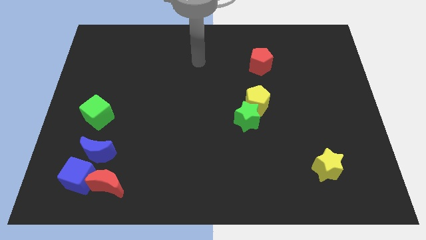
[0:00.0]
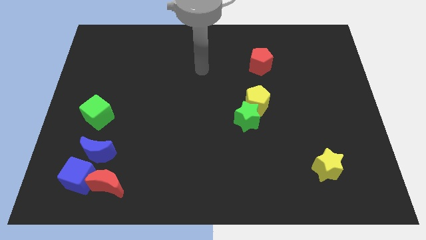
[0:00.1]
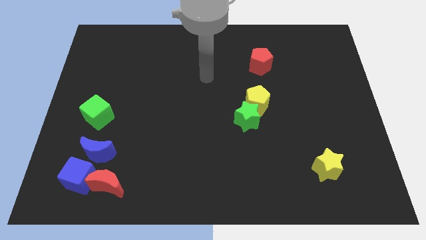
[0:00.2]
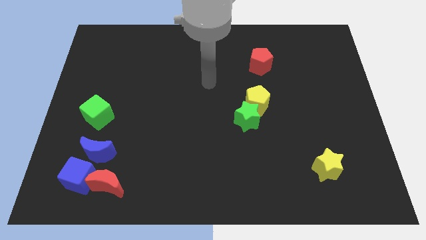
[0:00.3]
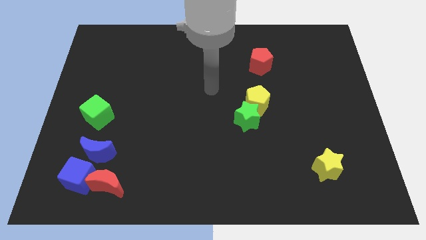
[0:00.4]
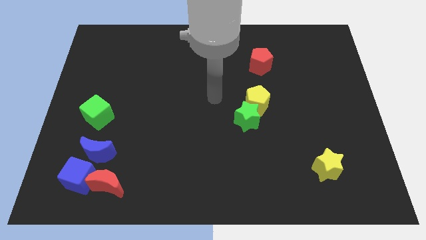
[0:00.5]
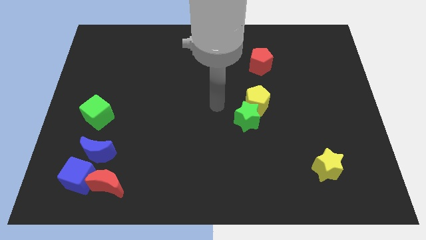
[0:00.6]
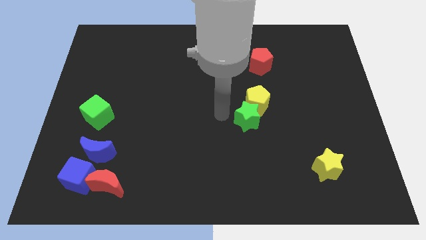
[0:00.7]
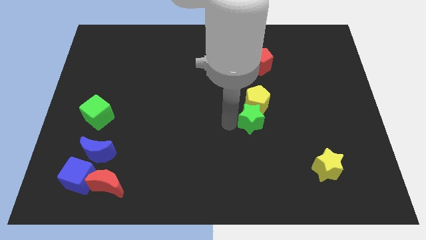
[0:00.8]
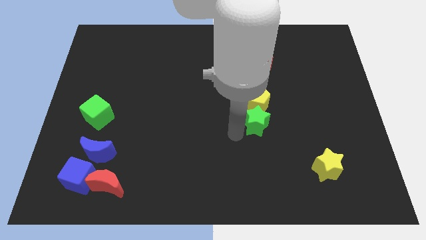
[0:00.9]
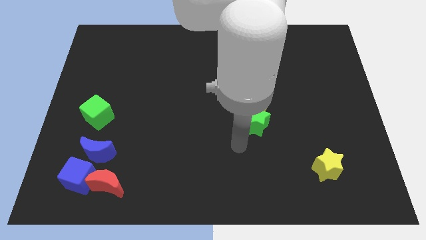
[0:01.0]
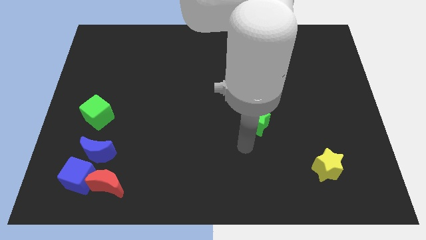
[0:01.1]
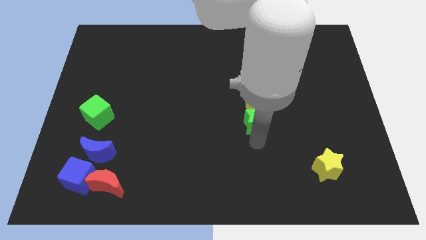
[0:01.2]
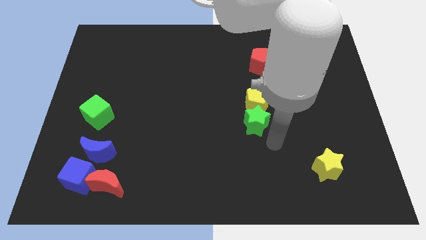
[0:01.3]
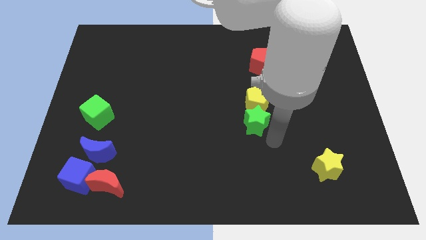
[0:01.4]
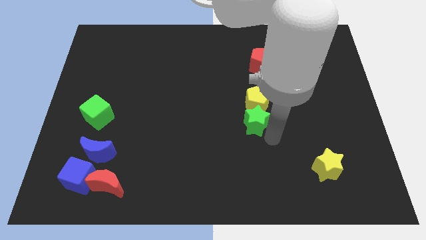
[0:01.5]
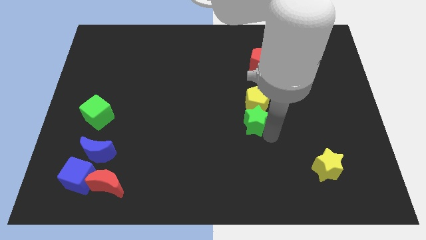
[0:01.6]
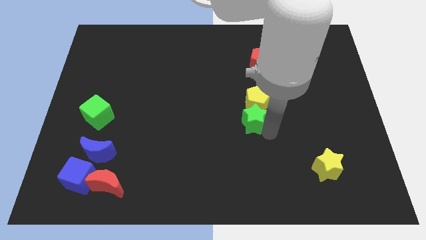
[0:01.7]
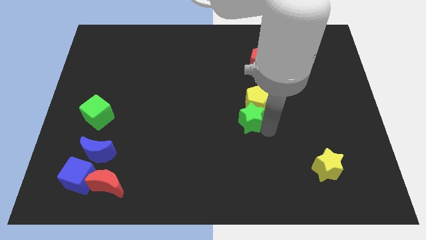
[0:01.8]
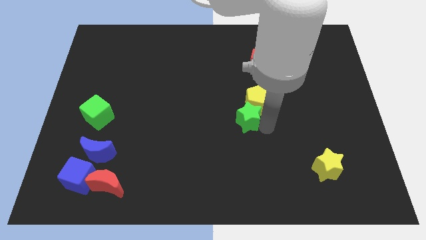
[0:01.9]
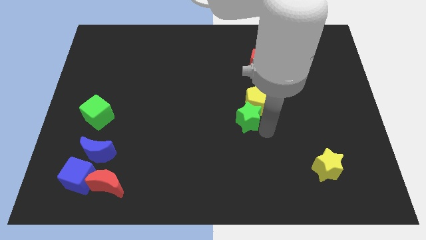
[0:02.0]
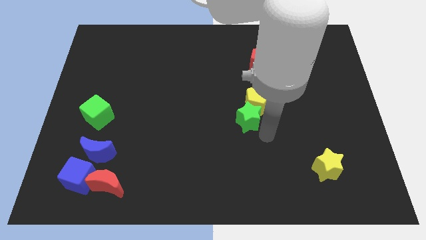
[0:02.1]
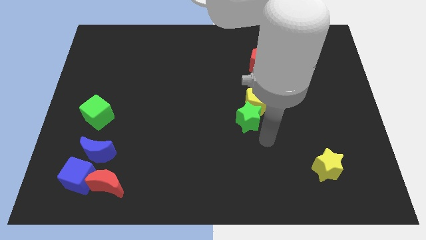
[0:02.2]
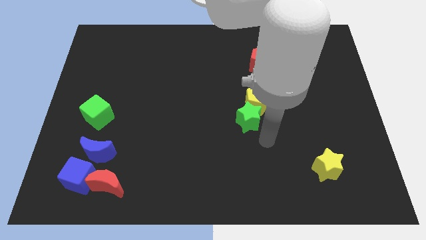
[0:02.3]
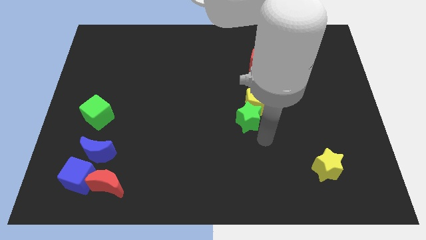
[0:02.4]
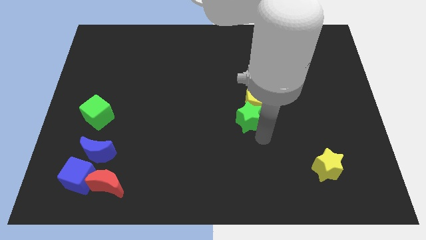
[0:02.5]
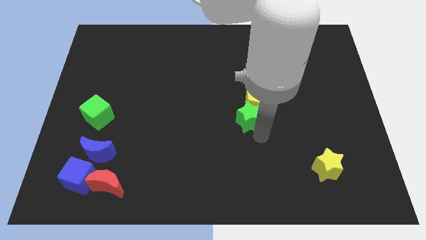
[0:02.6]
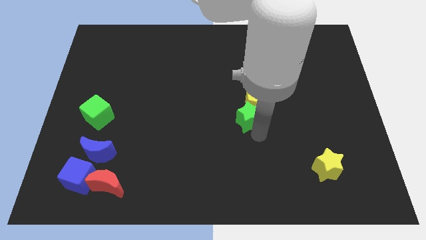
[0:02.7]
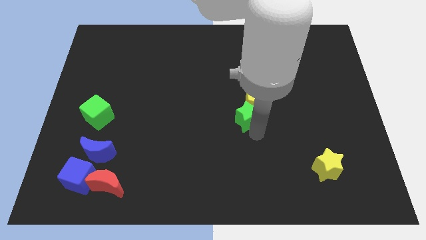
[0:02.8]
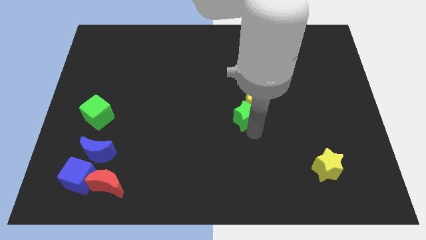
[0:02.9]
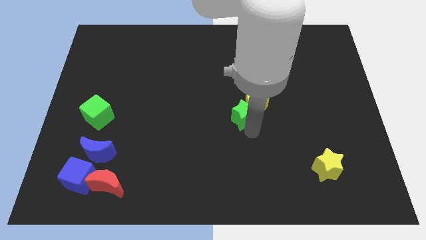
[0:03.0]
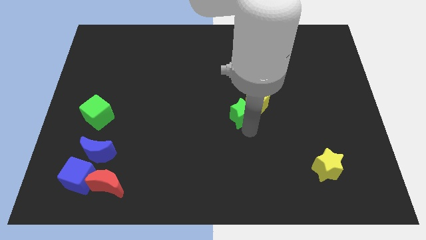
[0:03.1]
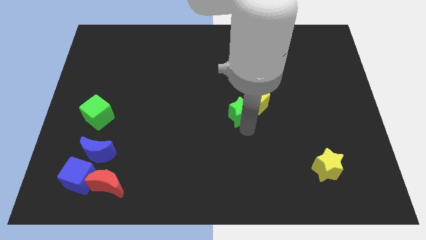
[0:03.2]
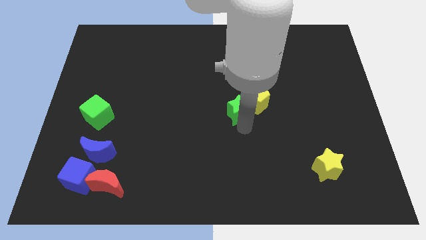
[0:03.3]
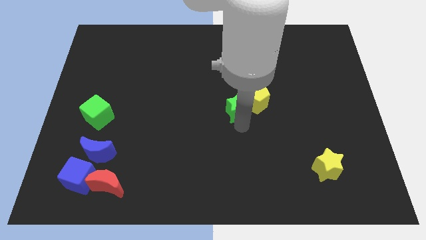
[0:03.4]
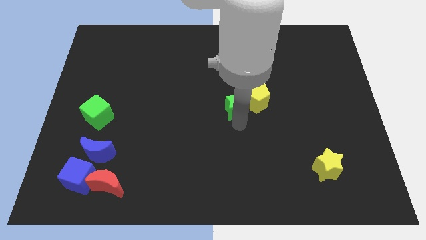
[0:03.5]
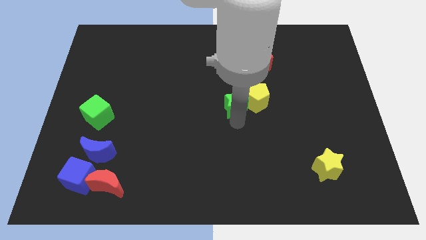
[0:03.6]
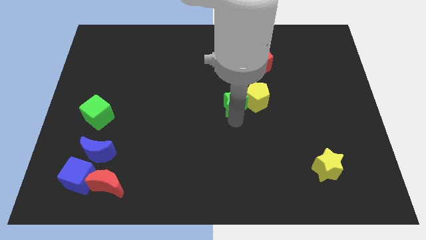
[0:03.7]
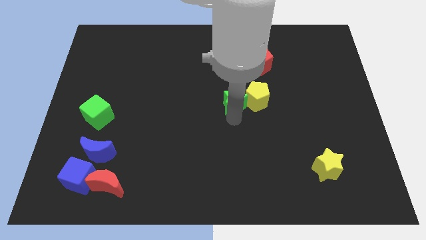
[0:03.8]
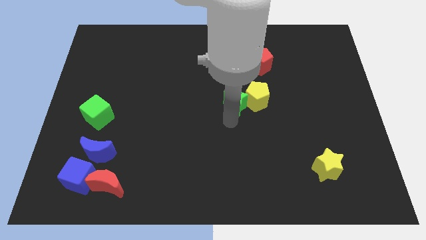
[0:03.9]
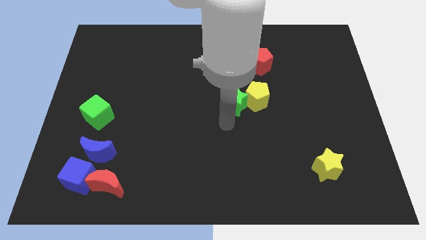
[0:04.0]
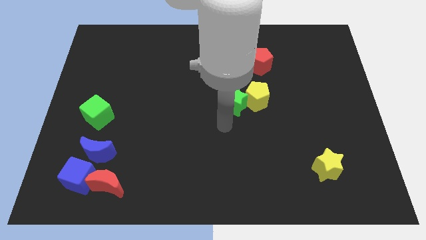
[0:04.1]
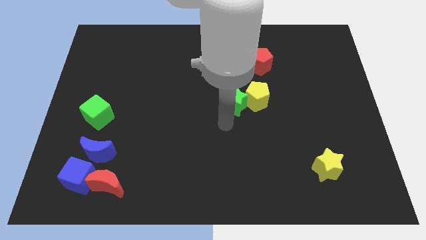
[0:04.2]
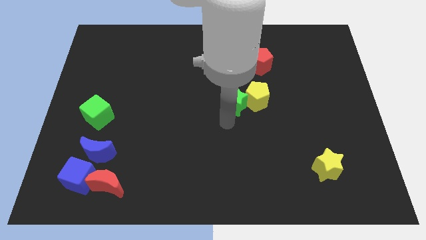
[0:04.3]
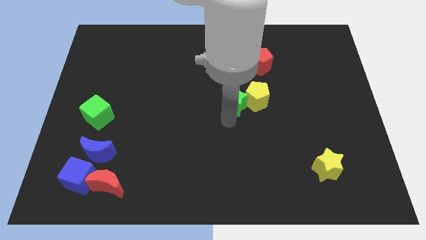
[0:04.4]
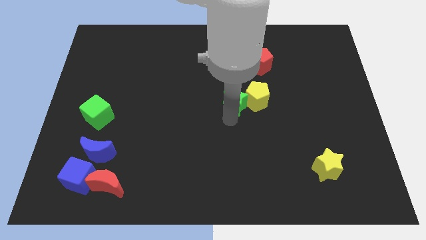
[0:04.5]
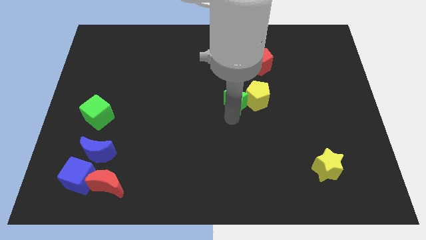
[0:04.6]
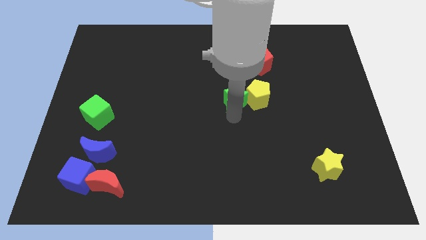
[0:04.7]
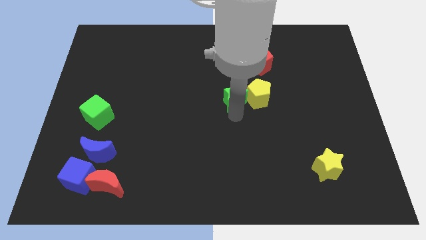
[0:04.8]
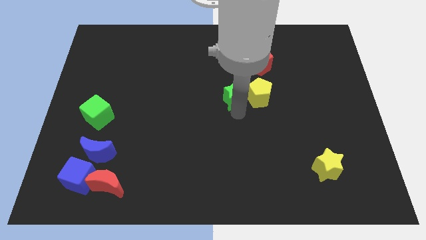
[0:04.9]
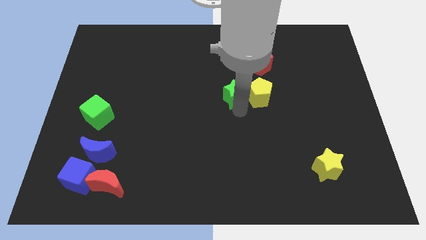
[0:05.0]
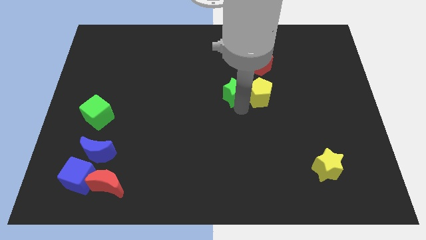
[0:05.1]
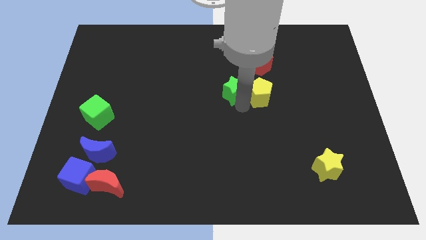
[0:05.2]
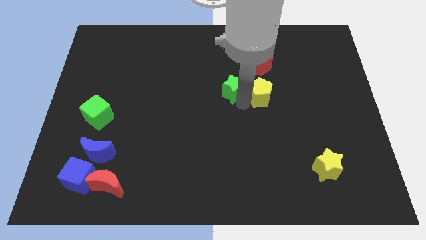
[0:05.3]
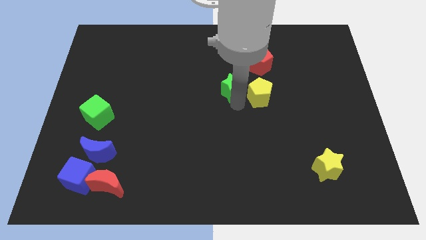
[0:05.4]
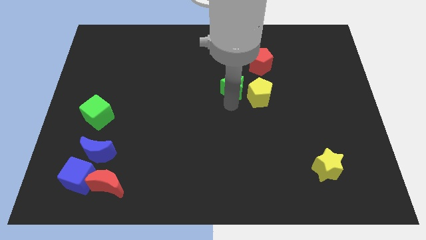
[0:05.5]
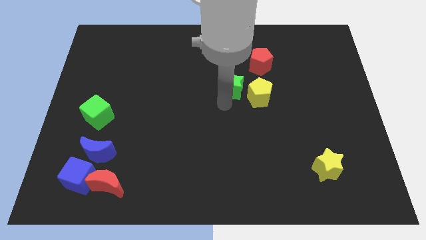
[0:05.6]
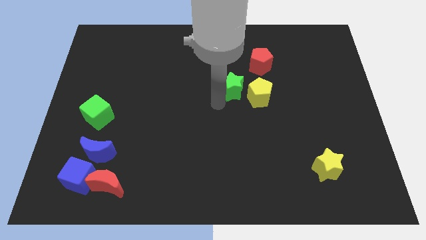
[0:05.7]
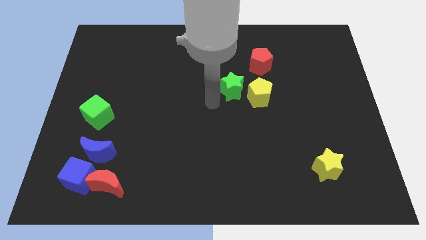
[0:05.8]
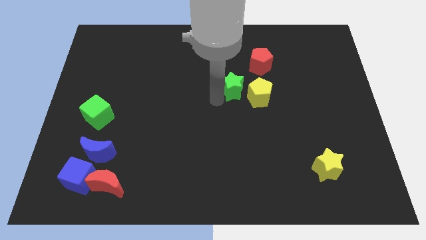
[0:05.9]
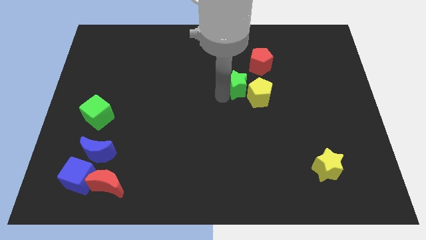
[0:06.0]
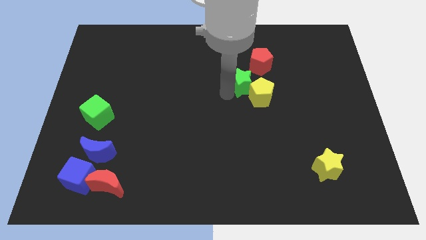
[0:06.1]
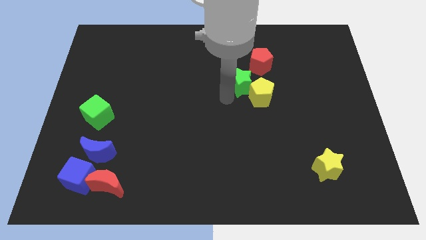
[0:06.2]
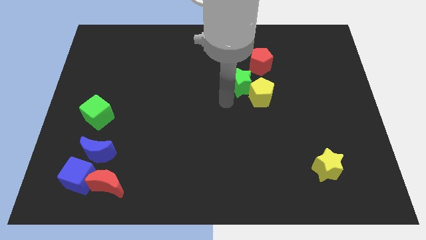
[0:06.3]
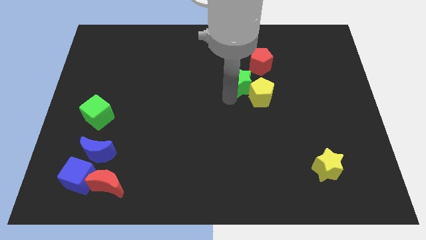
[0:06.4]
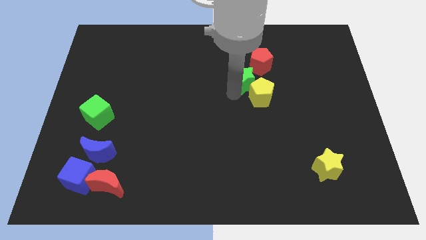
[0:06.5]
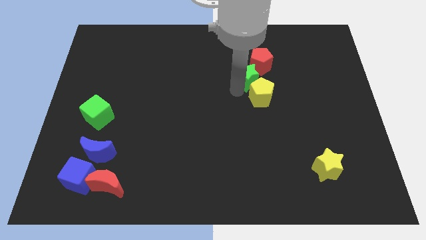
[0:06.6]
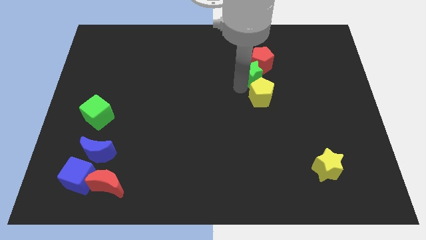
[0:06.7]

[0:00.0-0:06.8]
slide the green star to the red pentagon
